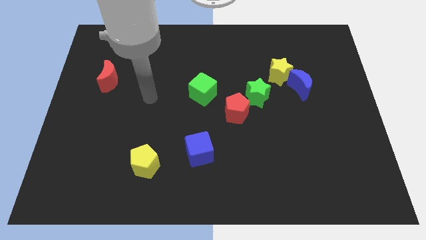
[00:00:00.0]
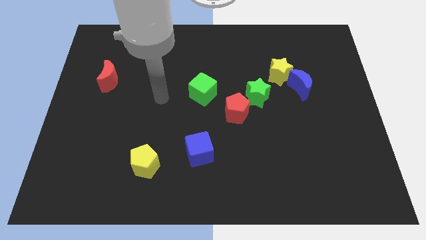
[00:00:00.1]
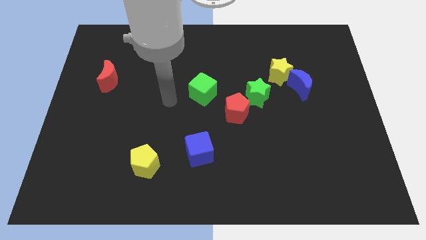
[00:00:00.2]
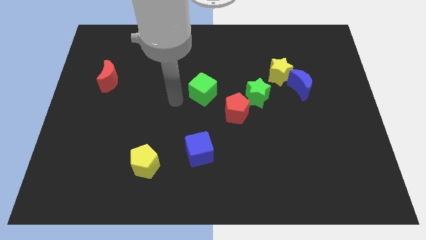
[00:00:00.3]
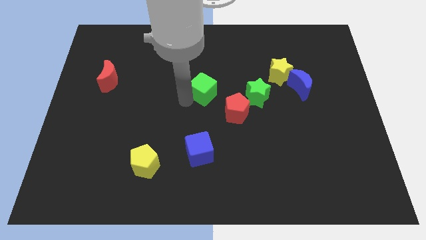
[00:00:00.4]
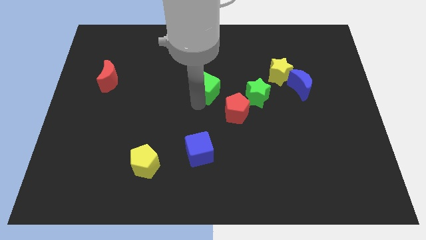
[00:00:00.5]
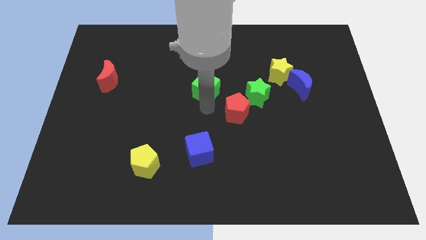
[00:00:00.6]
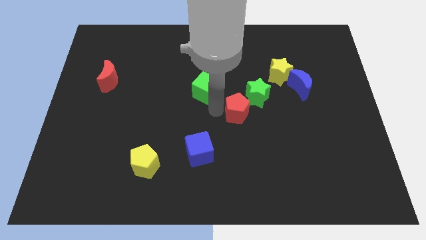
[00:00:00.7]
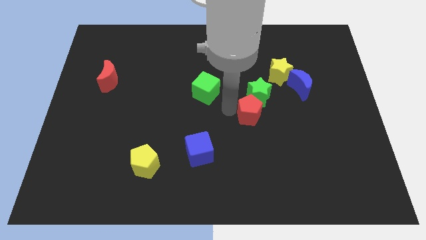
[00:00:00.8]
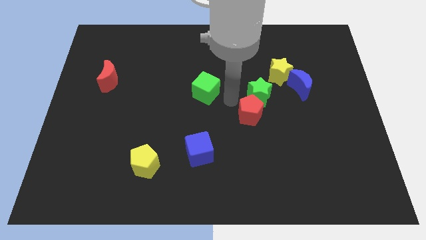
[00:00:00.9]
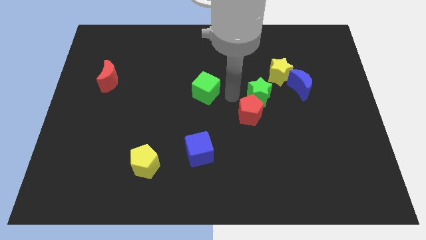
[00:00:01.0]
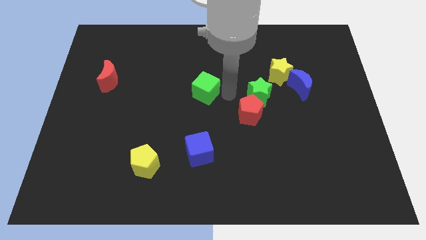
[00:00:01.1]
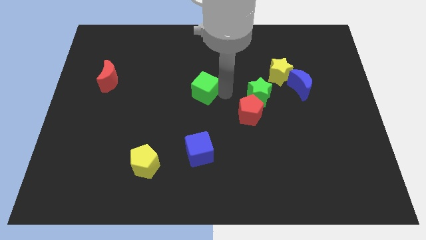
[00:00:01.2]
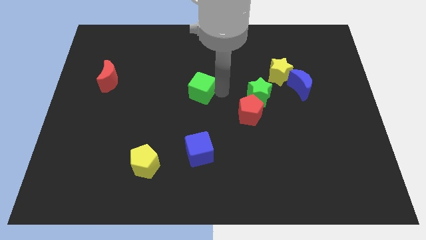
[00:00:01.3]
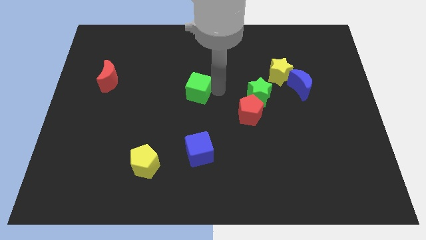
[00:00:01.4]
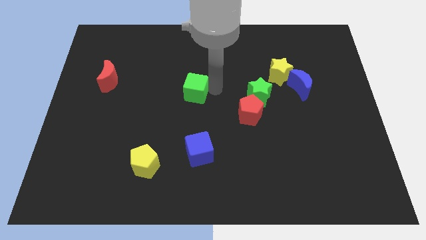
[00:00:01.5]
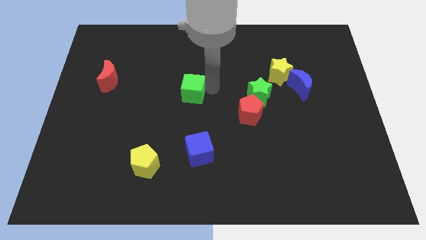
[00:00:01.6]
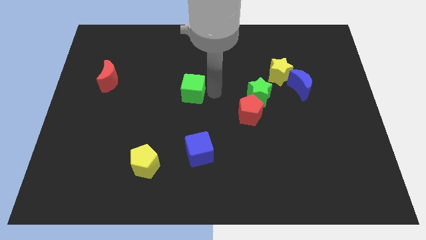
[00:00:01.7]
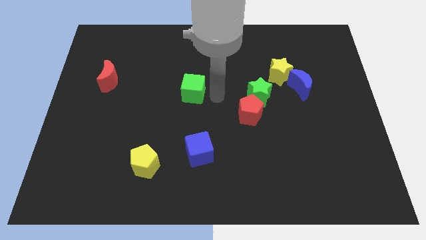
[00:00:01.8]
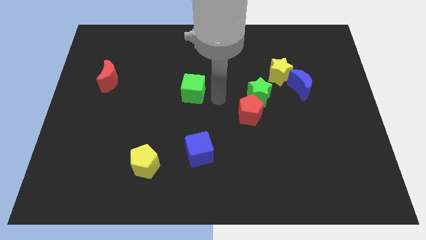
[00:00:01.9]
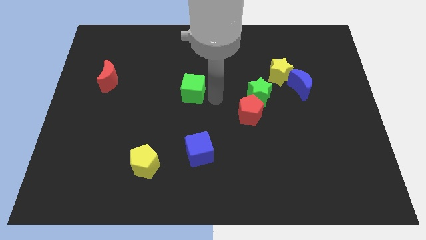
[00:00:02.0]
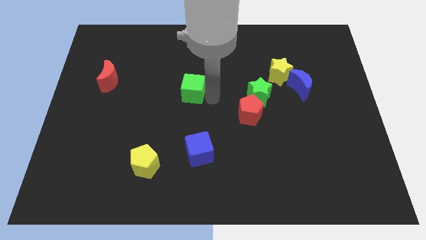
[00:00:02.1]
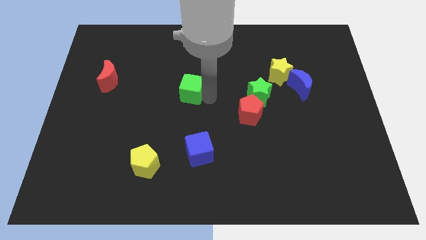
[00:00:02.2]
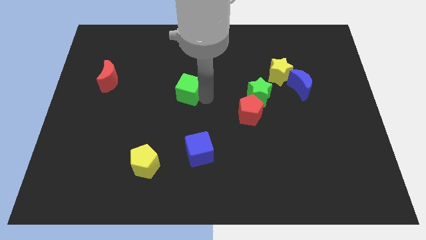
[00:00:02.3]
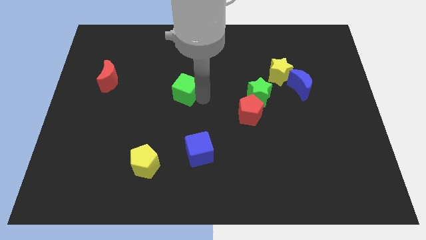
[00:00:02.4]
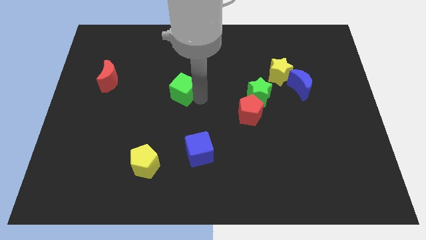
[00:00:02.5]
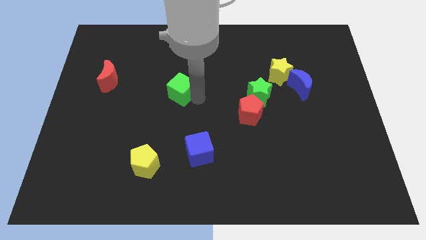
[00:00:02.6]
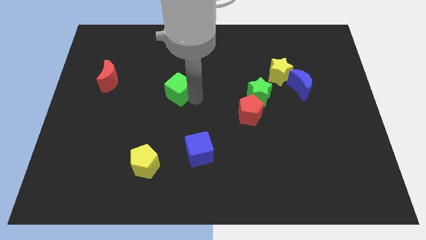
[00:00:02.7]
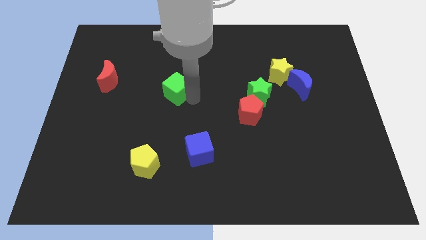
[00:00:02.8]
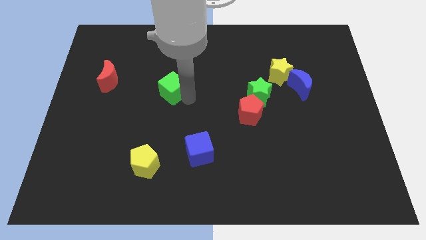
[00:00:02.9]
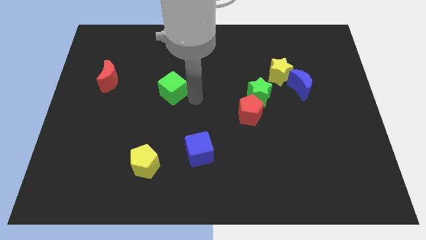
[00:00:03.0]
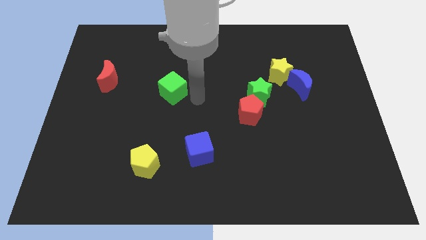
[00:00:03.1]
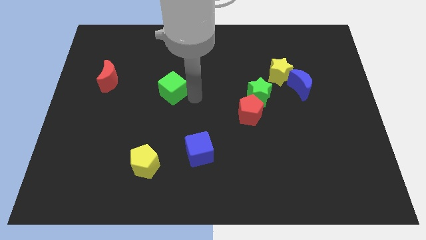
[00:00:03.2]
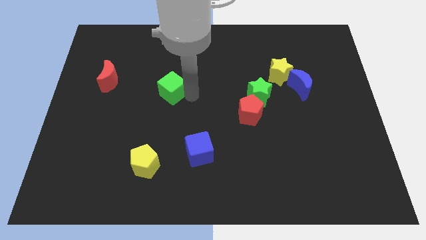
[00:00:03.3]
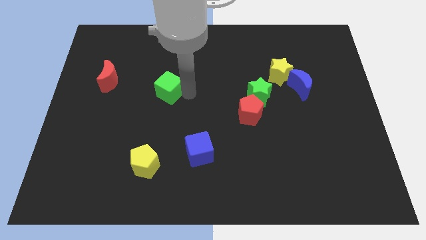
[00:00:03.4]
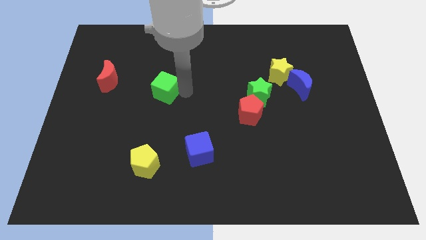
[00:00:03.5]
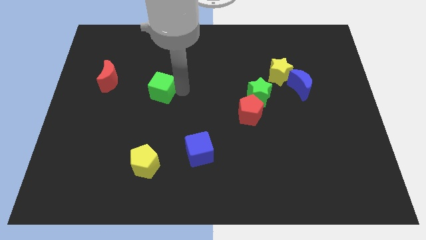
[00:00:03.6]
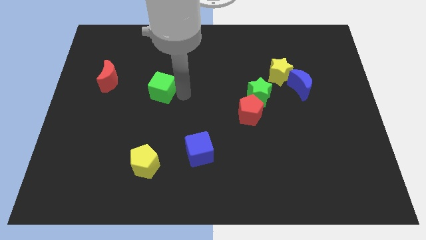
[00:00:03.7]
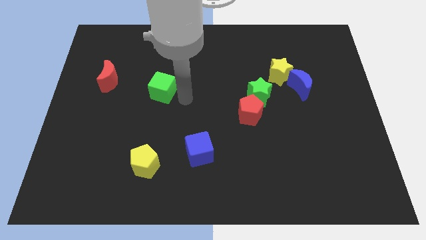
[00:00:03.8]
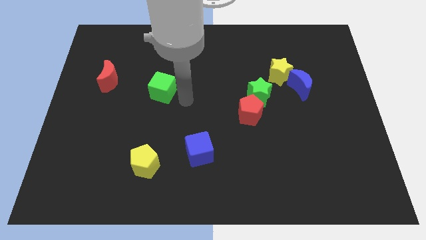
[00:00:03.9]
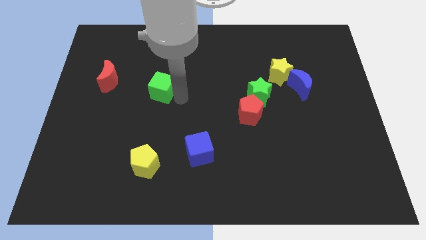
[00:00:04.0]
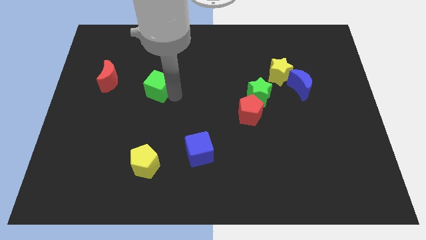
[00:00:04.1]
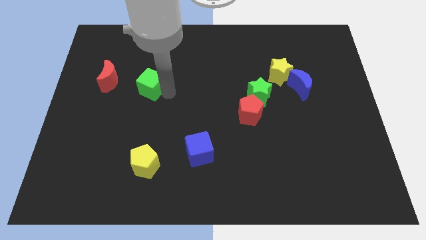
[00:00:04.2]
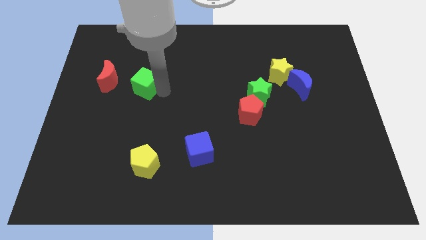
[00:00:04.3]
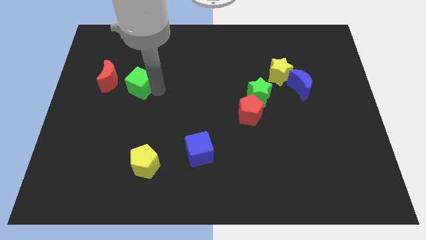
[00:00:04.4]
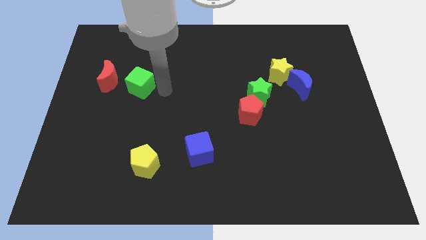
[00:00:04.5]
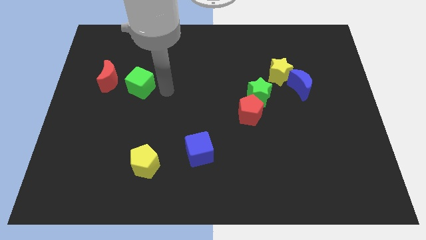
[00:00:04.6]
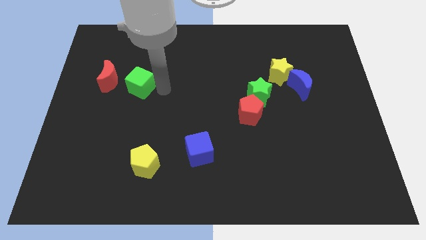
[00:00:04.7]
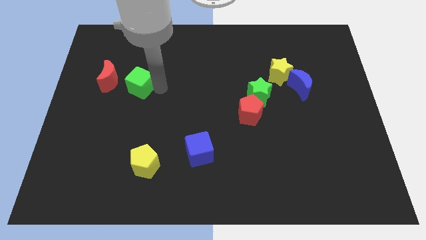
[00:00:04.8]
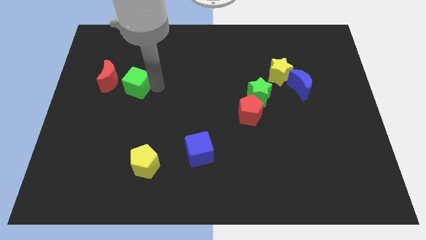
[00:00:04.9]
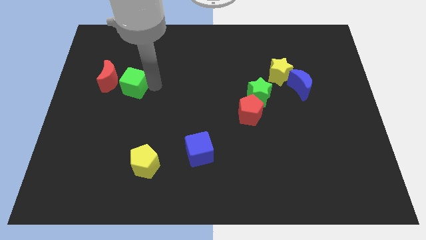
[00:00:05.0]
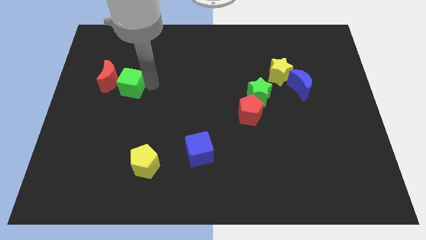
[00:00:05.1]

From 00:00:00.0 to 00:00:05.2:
move the green cube to the red moon

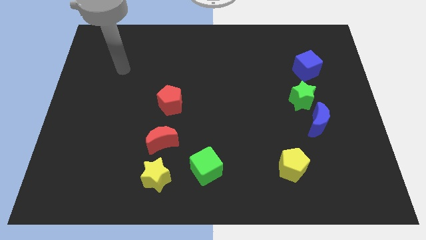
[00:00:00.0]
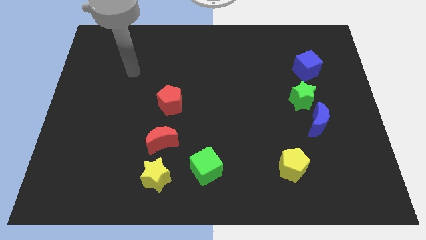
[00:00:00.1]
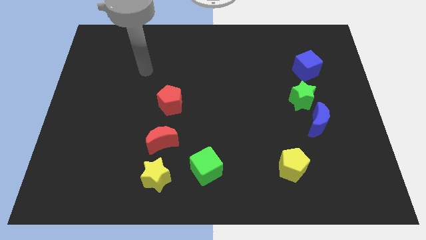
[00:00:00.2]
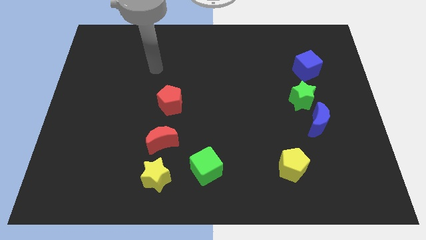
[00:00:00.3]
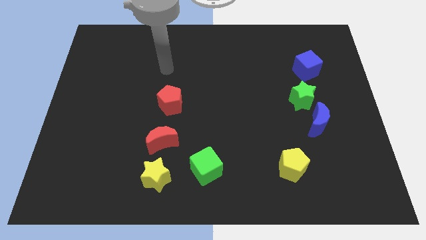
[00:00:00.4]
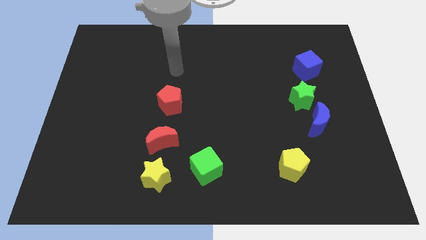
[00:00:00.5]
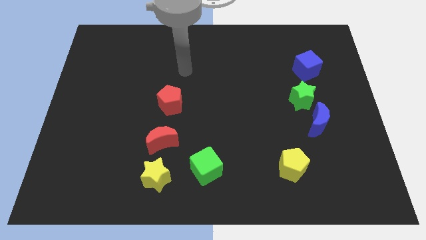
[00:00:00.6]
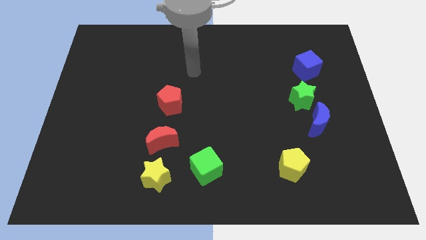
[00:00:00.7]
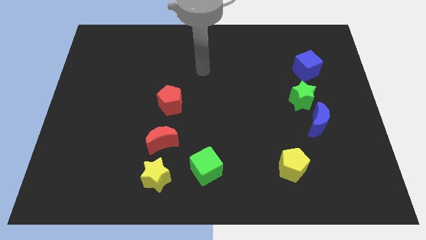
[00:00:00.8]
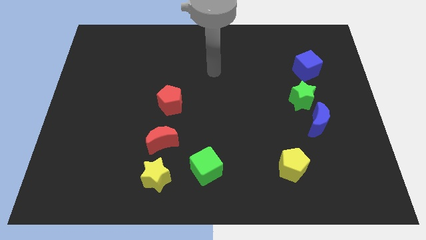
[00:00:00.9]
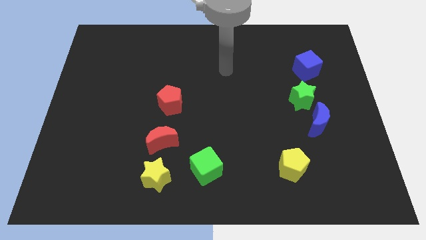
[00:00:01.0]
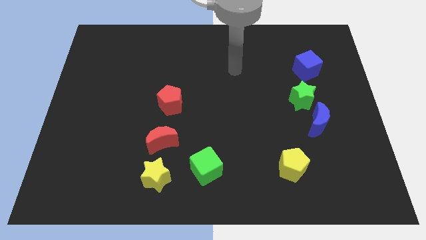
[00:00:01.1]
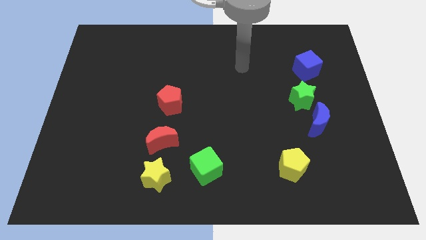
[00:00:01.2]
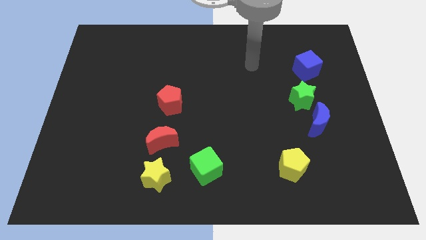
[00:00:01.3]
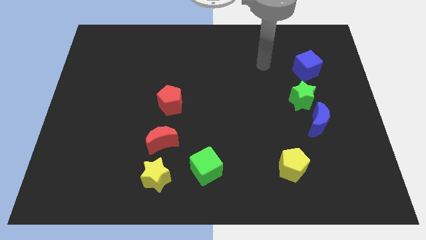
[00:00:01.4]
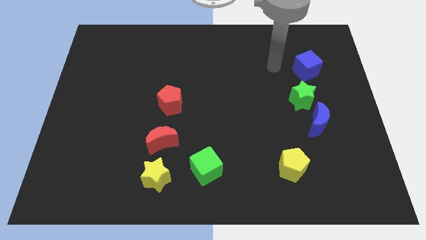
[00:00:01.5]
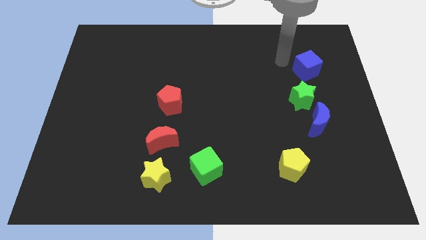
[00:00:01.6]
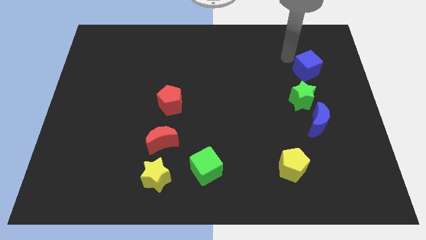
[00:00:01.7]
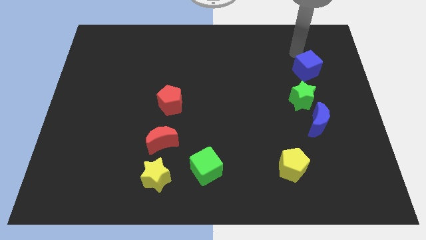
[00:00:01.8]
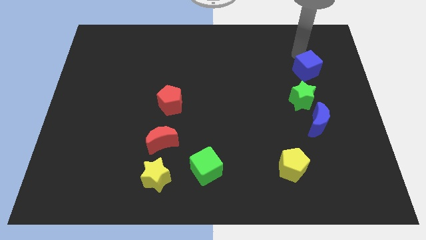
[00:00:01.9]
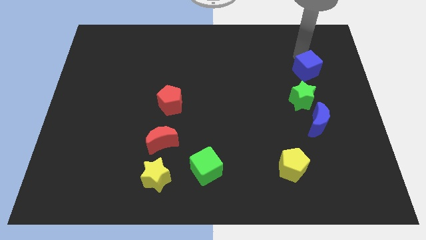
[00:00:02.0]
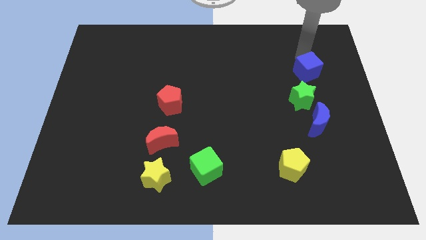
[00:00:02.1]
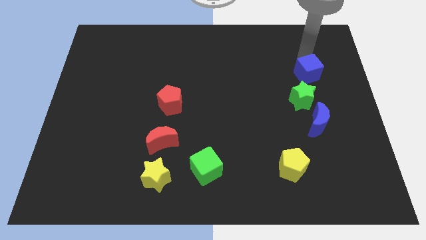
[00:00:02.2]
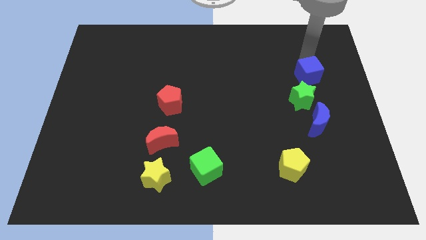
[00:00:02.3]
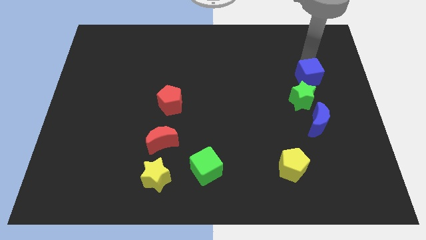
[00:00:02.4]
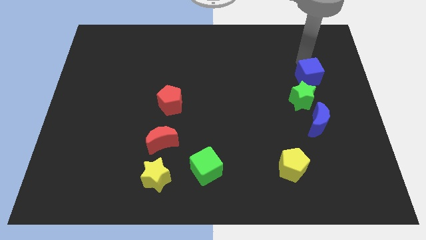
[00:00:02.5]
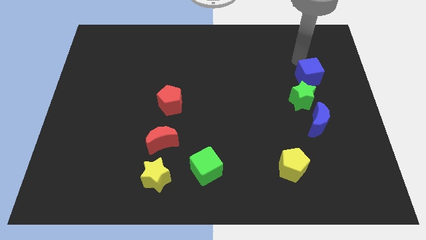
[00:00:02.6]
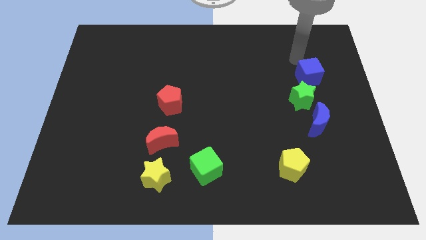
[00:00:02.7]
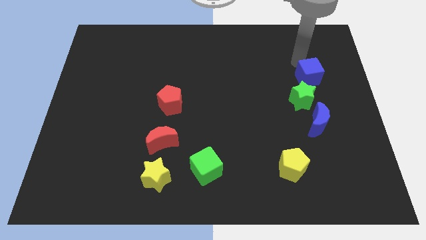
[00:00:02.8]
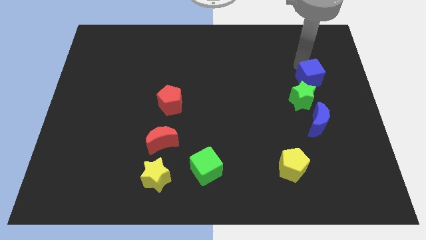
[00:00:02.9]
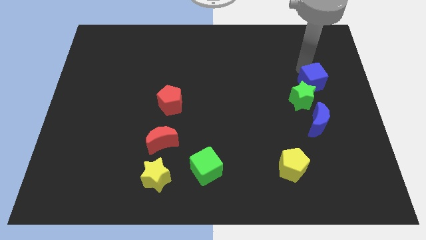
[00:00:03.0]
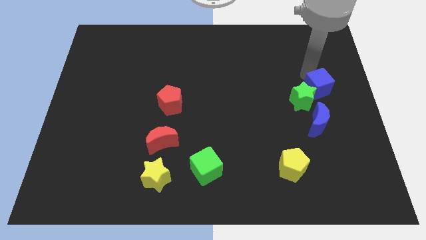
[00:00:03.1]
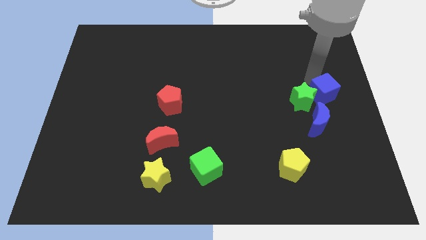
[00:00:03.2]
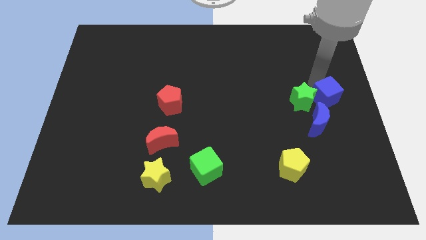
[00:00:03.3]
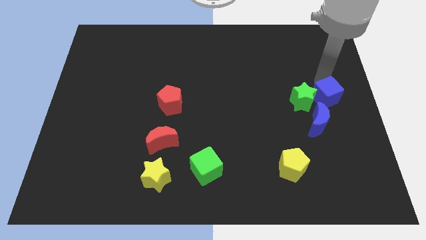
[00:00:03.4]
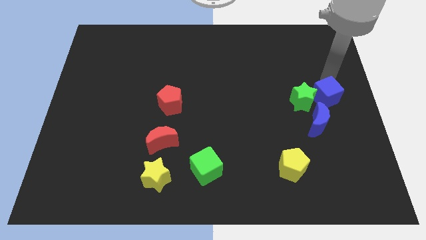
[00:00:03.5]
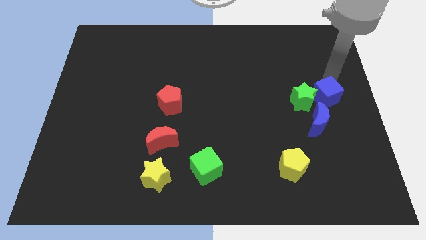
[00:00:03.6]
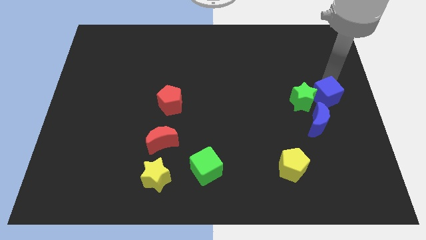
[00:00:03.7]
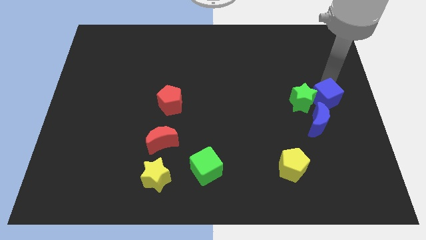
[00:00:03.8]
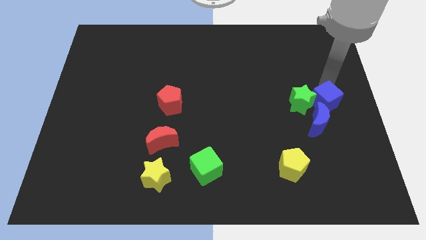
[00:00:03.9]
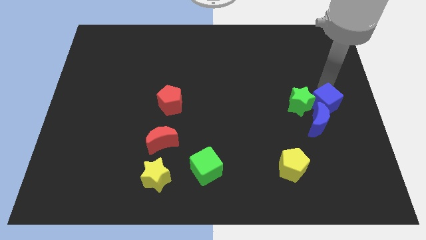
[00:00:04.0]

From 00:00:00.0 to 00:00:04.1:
move the blue cube to the blue moon
